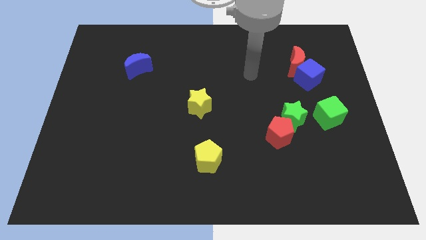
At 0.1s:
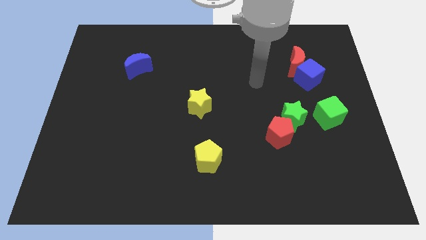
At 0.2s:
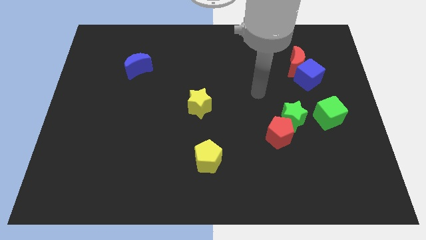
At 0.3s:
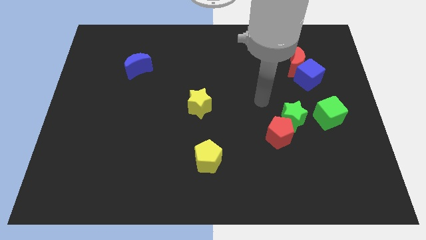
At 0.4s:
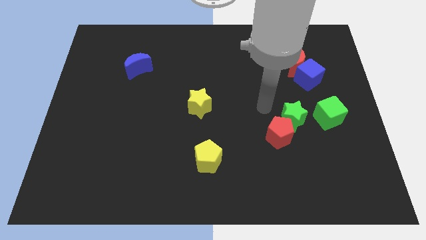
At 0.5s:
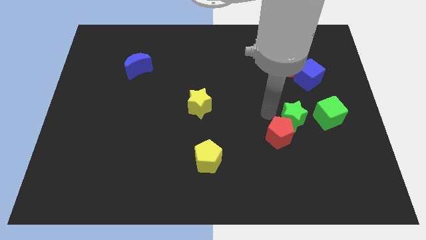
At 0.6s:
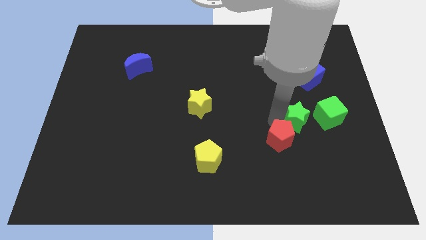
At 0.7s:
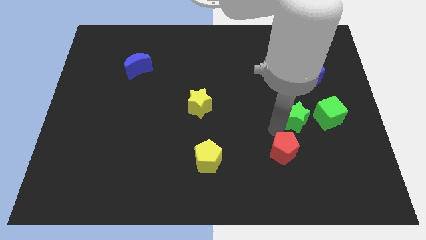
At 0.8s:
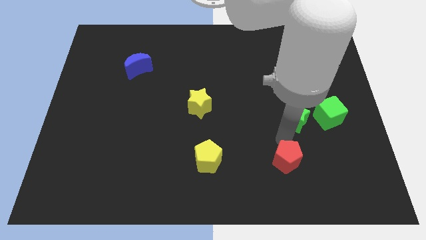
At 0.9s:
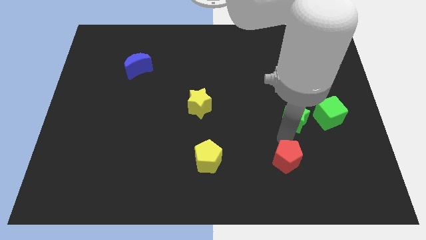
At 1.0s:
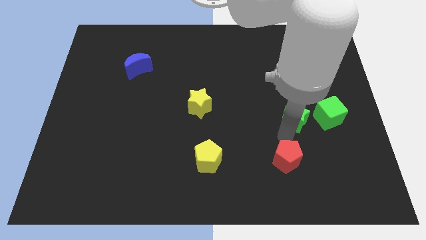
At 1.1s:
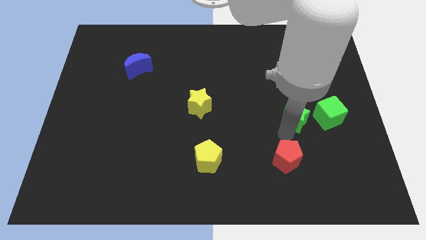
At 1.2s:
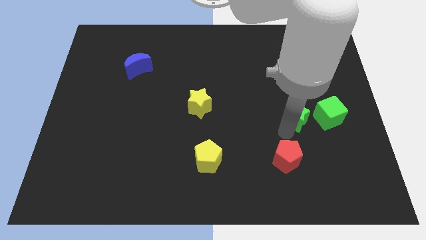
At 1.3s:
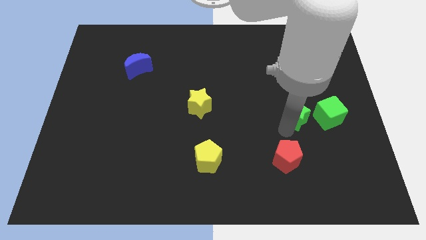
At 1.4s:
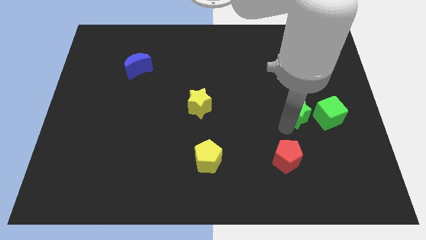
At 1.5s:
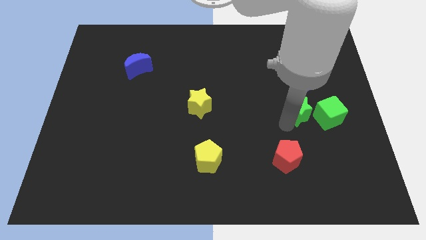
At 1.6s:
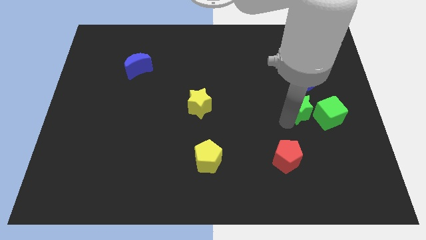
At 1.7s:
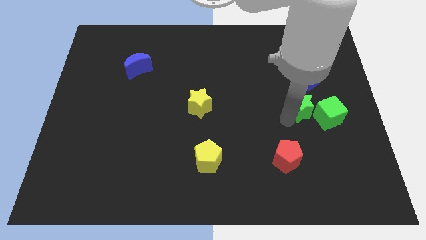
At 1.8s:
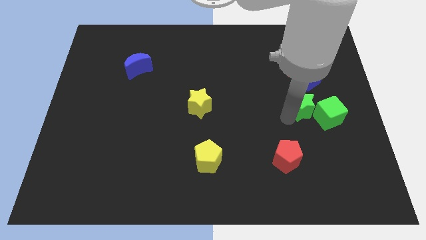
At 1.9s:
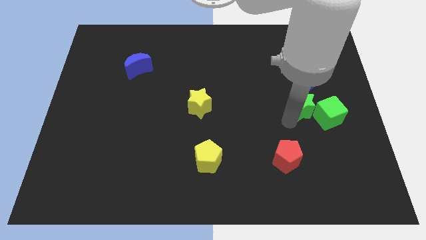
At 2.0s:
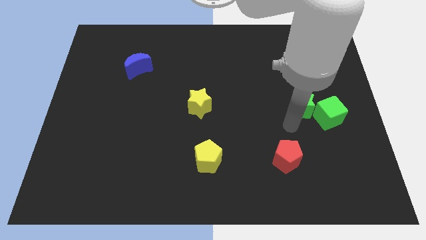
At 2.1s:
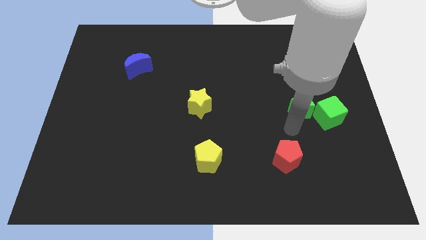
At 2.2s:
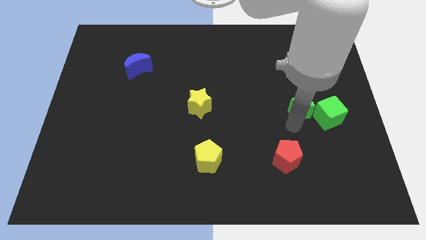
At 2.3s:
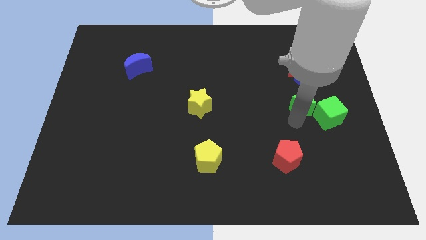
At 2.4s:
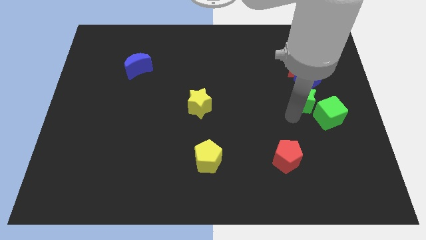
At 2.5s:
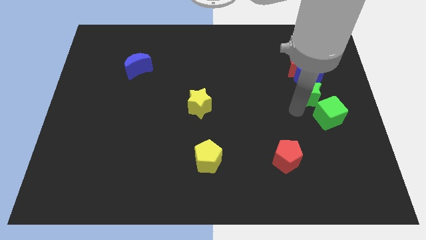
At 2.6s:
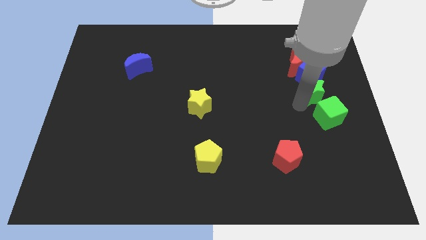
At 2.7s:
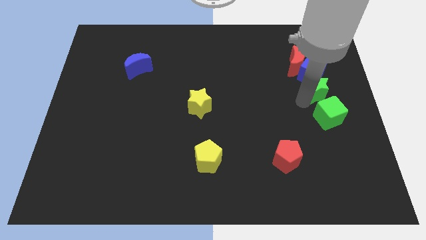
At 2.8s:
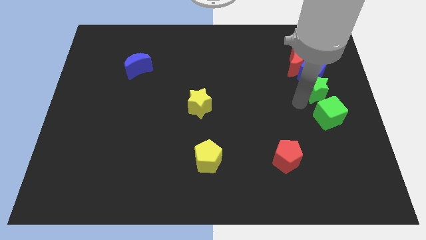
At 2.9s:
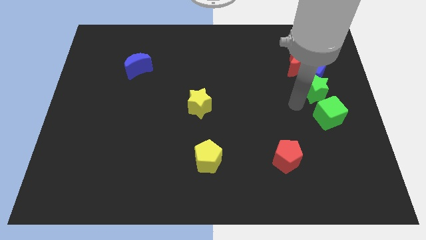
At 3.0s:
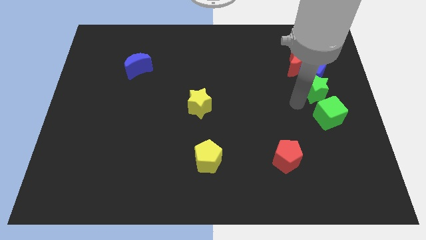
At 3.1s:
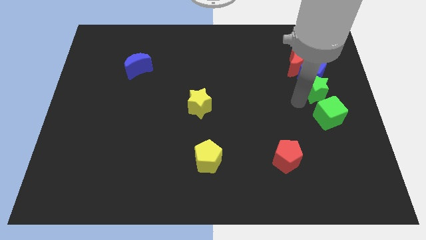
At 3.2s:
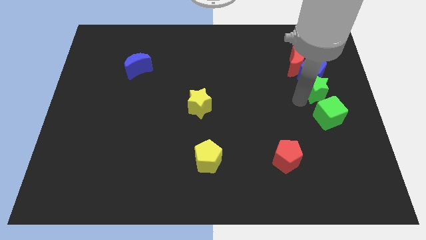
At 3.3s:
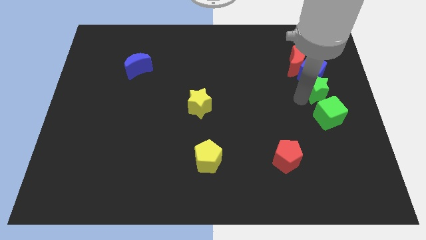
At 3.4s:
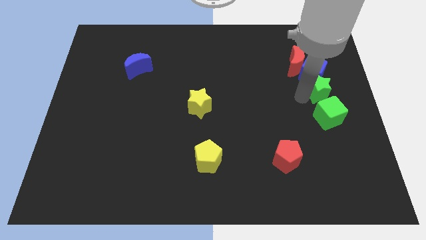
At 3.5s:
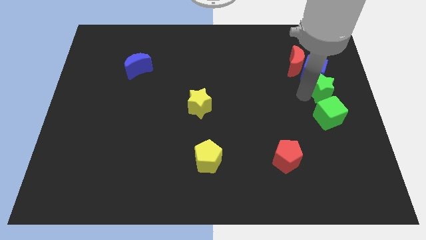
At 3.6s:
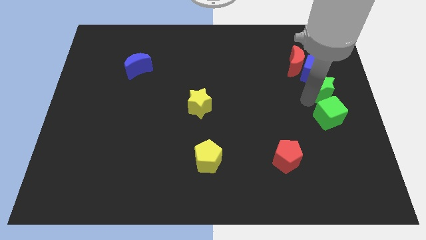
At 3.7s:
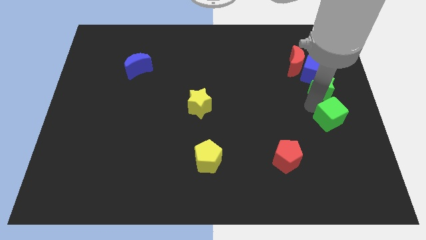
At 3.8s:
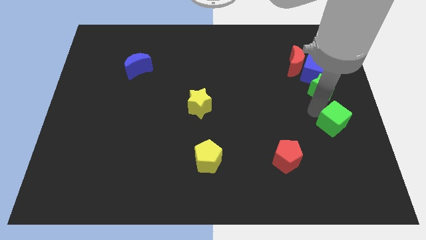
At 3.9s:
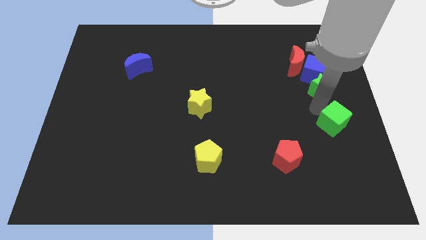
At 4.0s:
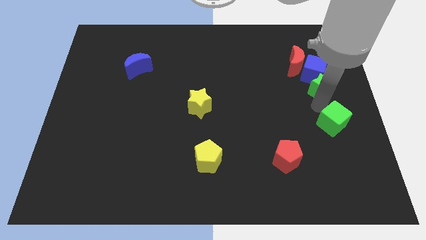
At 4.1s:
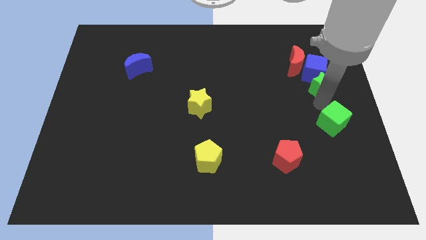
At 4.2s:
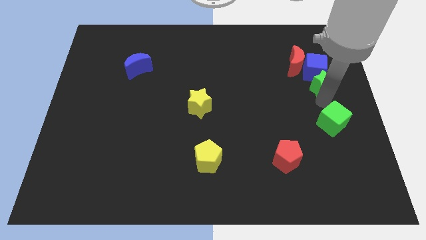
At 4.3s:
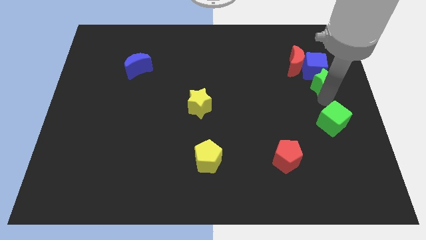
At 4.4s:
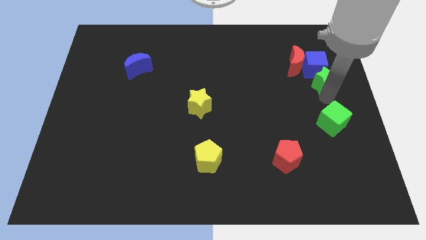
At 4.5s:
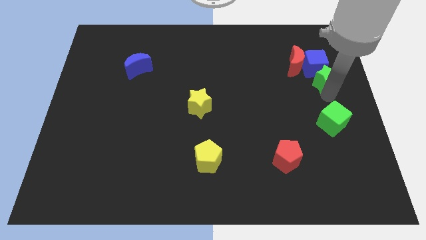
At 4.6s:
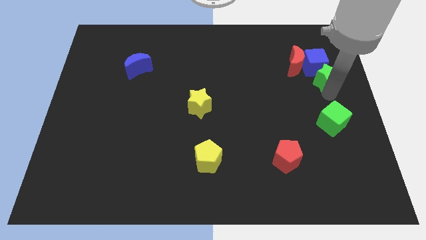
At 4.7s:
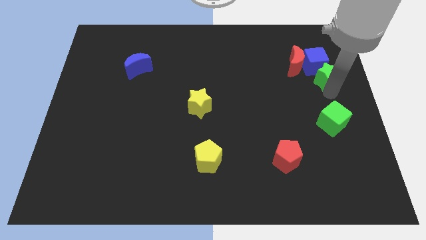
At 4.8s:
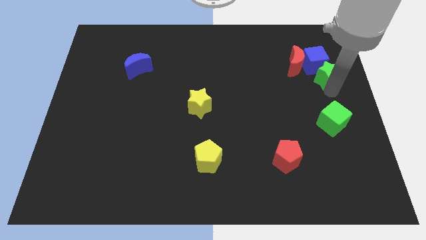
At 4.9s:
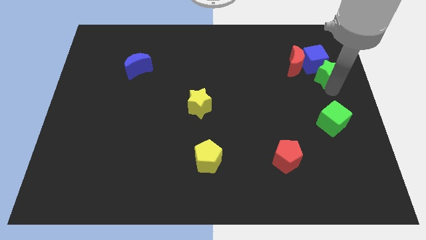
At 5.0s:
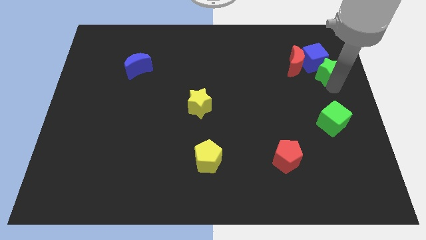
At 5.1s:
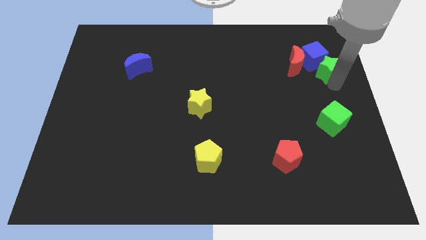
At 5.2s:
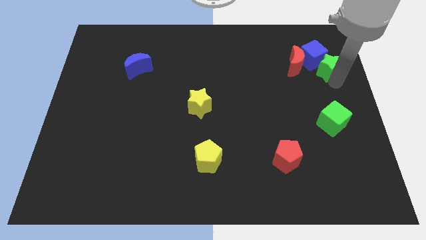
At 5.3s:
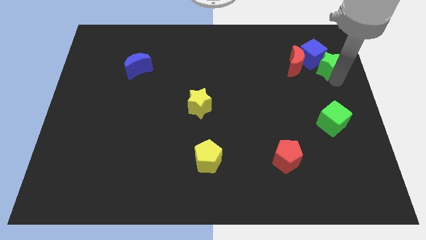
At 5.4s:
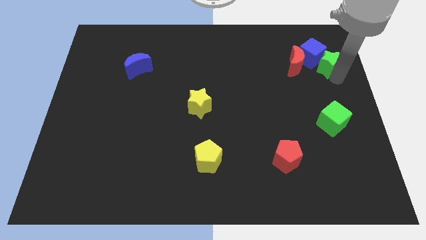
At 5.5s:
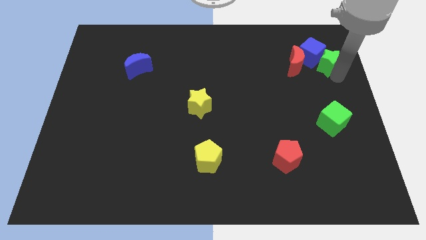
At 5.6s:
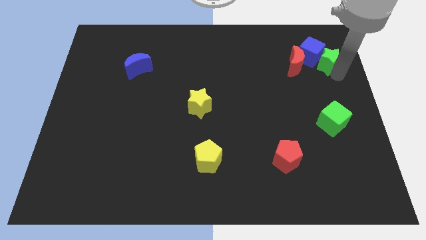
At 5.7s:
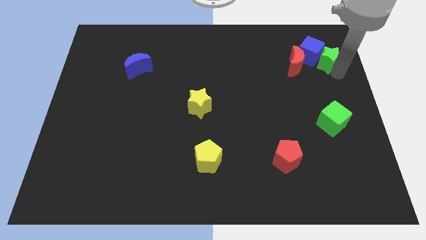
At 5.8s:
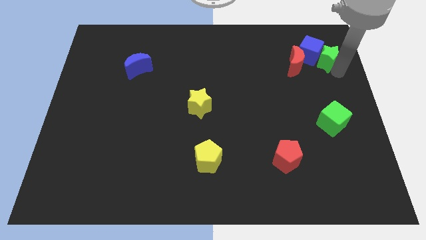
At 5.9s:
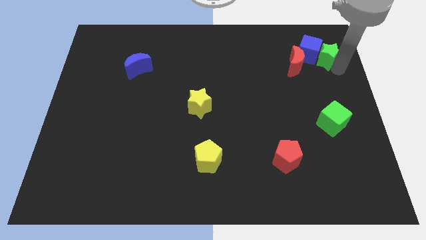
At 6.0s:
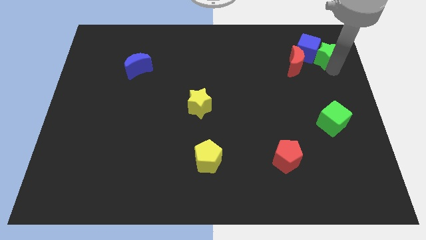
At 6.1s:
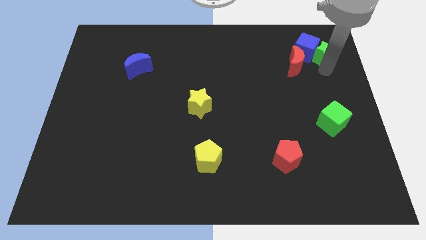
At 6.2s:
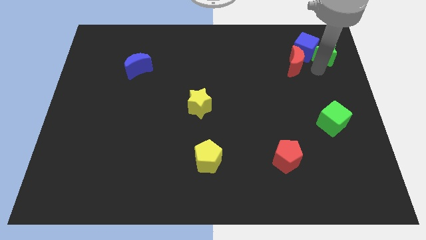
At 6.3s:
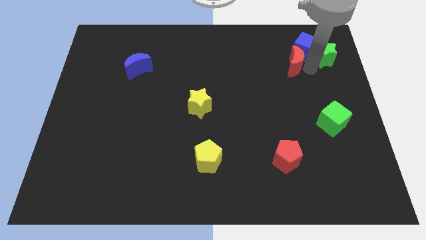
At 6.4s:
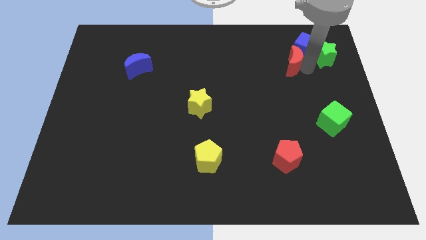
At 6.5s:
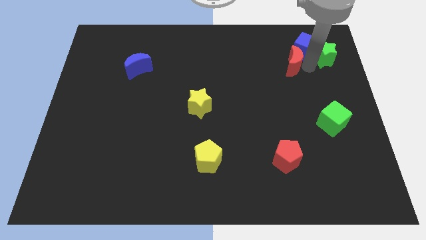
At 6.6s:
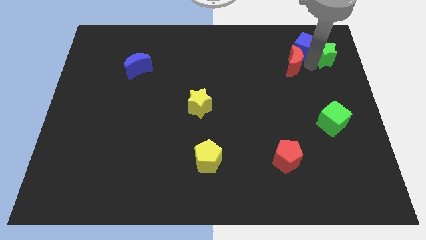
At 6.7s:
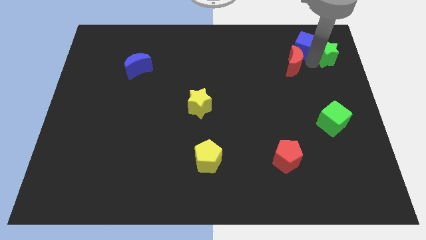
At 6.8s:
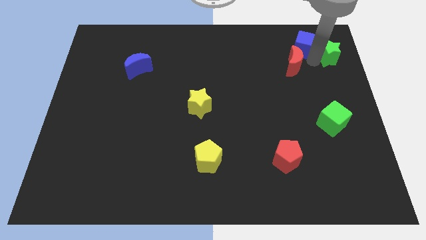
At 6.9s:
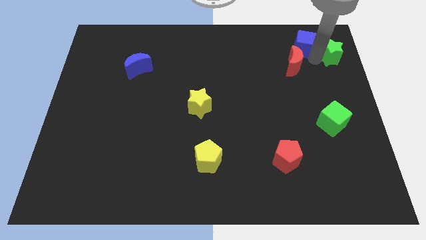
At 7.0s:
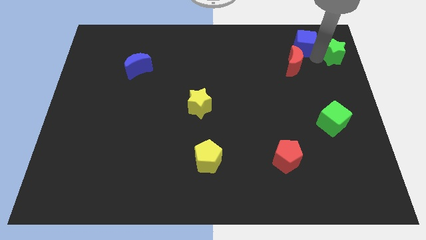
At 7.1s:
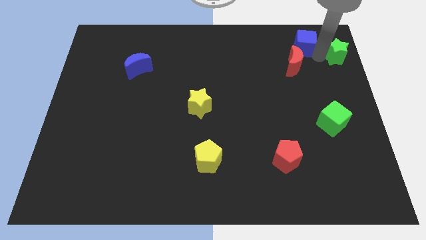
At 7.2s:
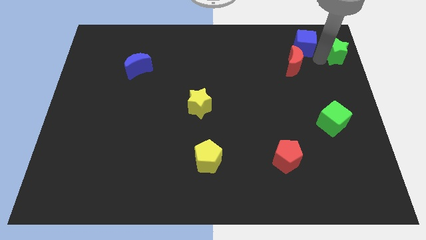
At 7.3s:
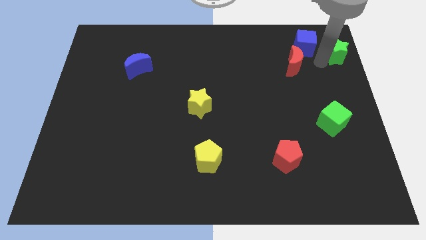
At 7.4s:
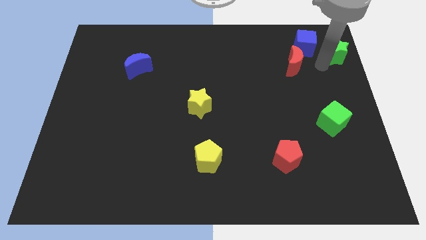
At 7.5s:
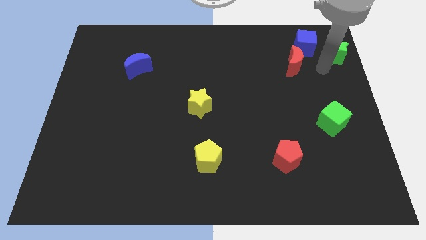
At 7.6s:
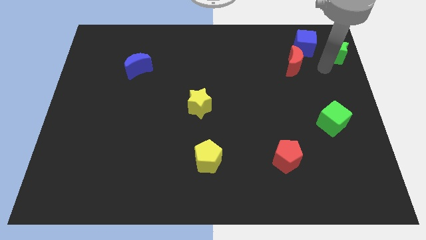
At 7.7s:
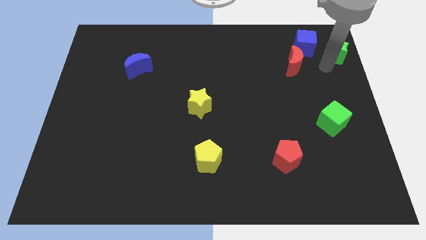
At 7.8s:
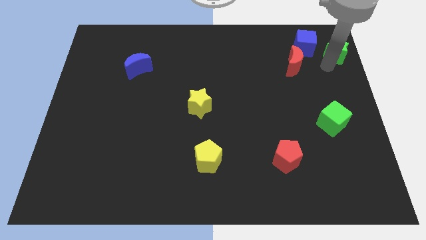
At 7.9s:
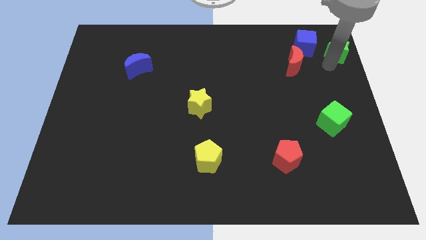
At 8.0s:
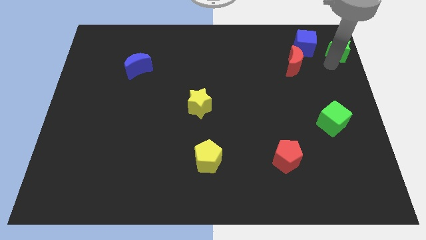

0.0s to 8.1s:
push the green star to the upper right corner
